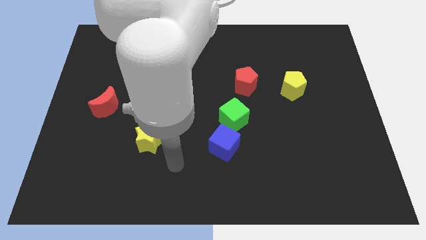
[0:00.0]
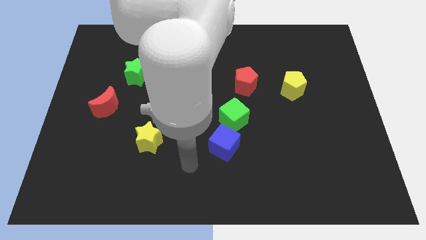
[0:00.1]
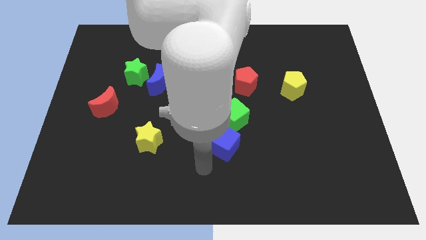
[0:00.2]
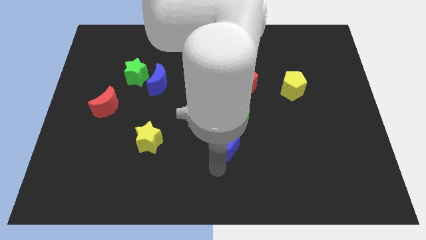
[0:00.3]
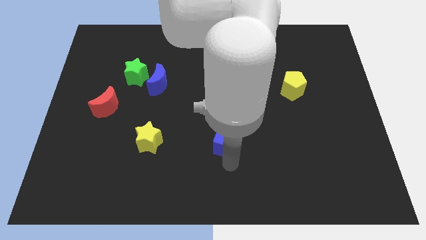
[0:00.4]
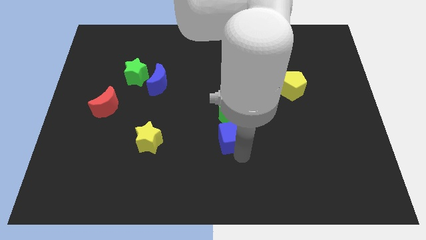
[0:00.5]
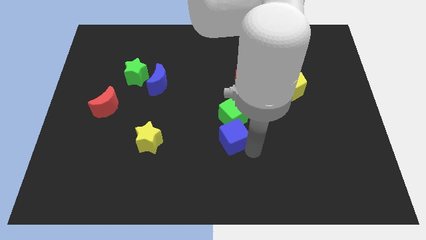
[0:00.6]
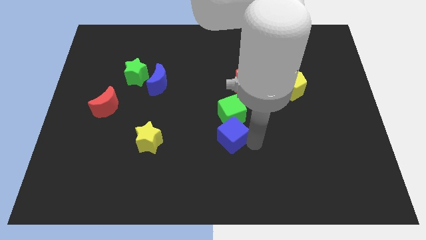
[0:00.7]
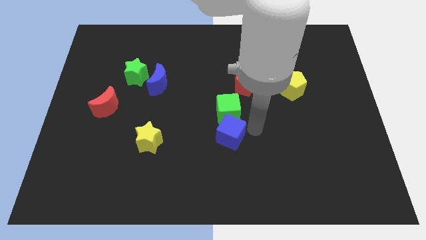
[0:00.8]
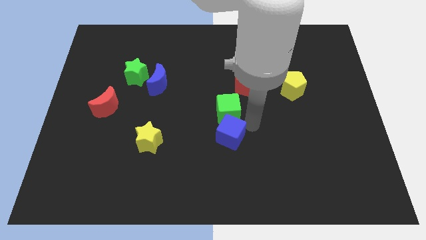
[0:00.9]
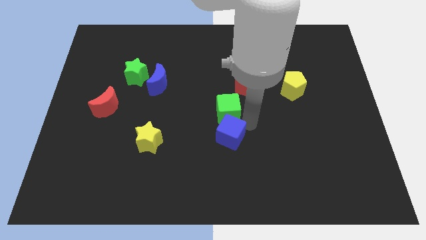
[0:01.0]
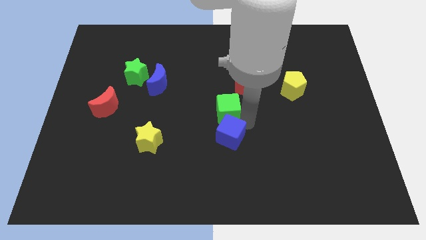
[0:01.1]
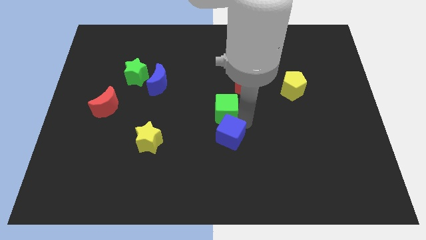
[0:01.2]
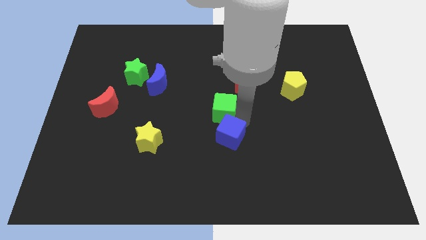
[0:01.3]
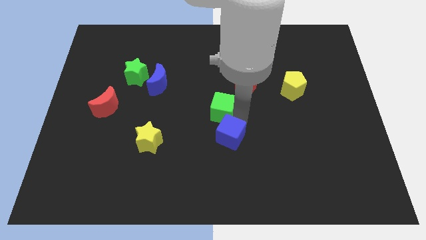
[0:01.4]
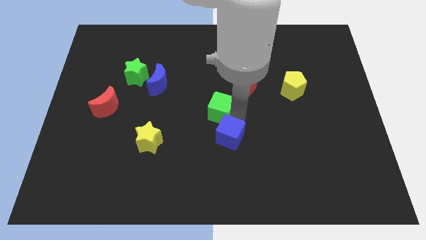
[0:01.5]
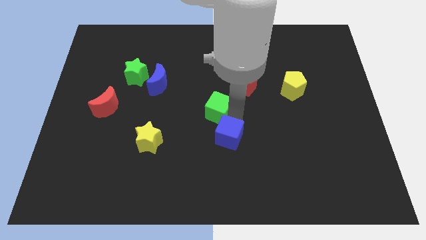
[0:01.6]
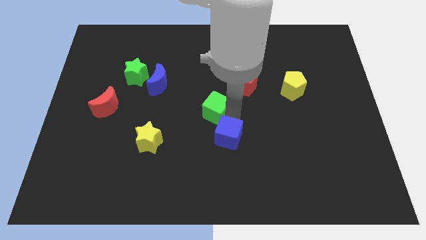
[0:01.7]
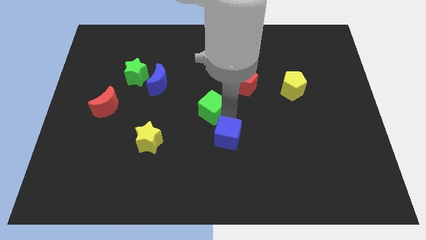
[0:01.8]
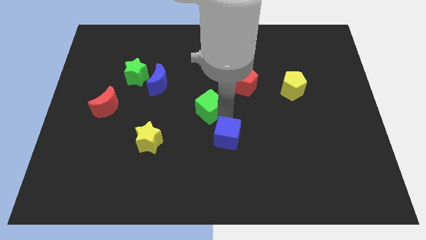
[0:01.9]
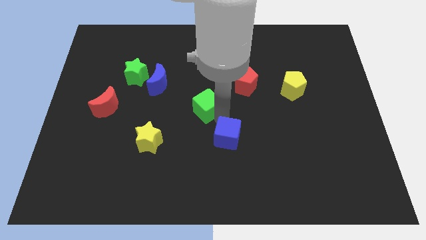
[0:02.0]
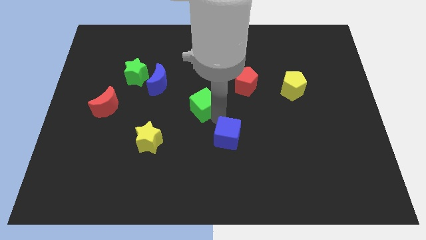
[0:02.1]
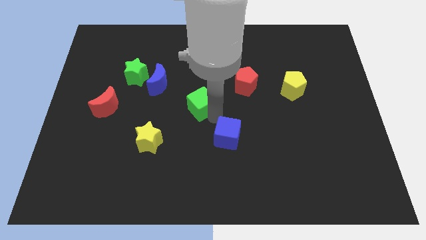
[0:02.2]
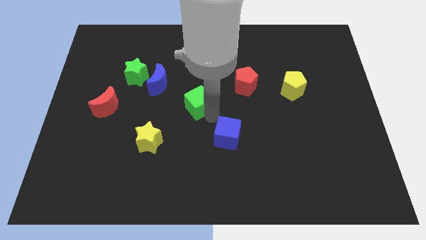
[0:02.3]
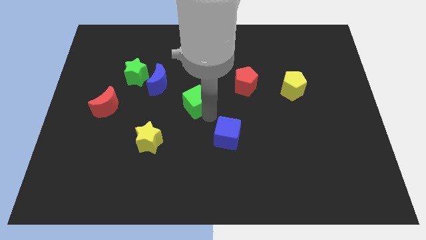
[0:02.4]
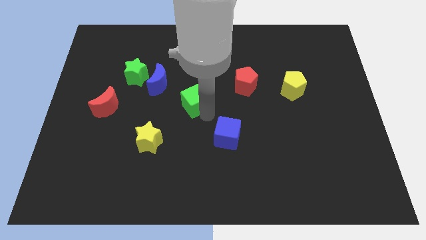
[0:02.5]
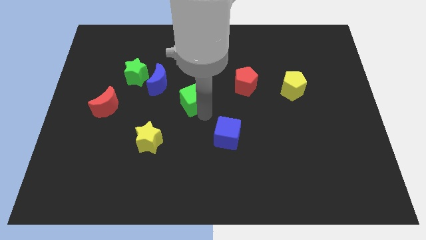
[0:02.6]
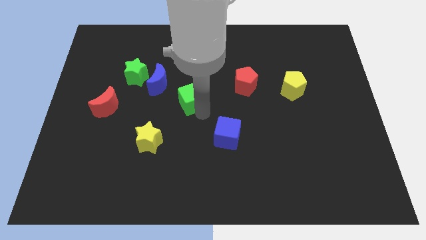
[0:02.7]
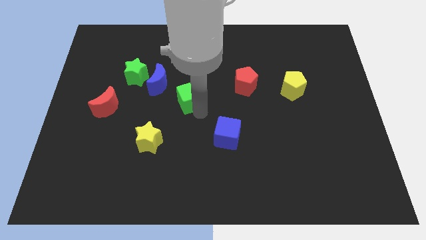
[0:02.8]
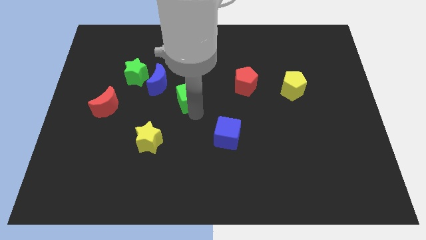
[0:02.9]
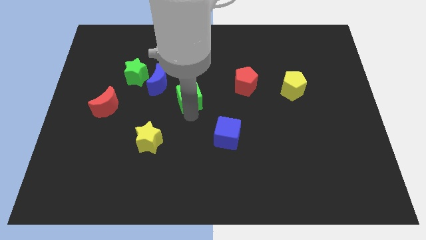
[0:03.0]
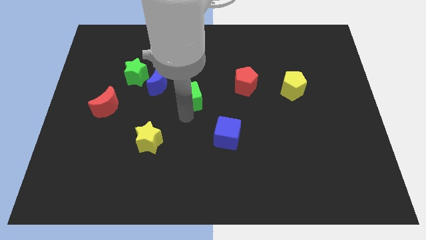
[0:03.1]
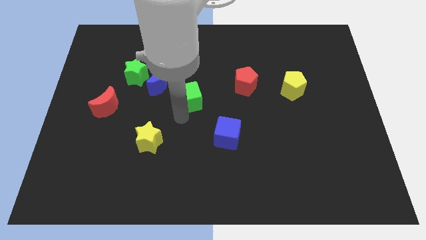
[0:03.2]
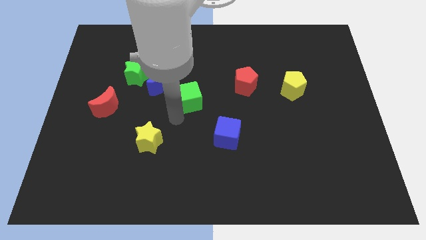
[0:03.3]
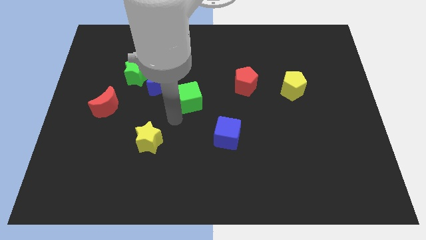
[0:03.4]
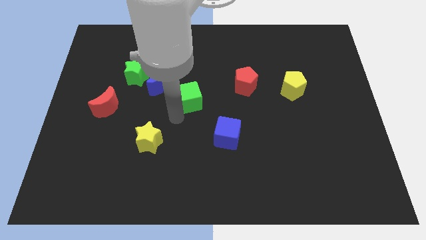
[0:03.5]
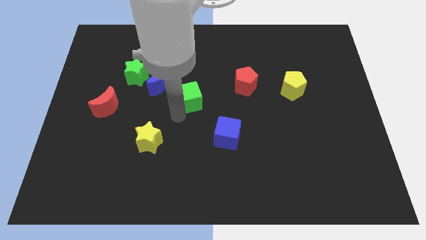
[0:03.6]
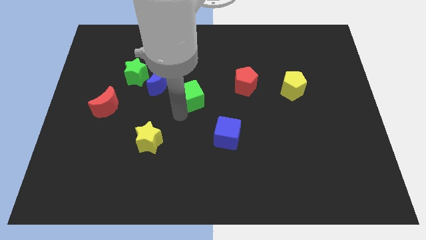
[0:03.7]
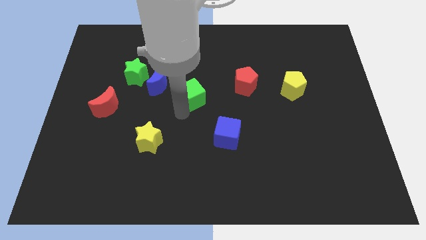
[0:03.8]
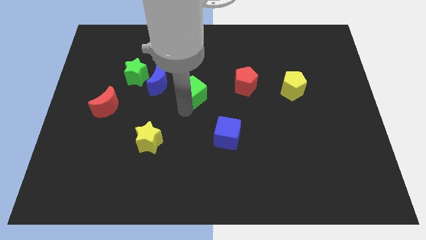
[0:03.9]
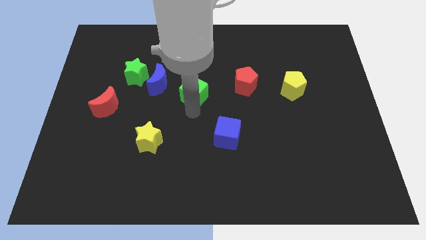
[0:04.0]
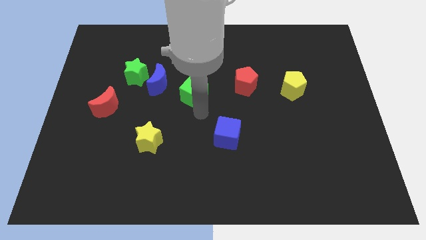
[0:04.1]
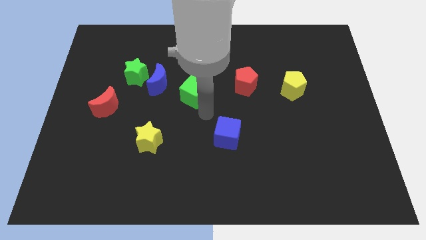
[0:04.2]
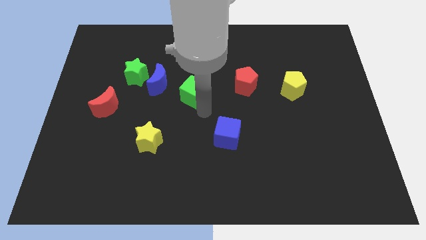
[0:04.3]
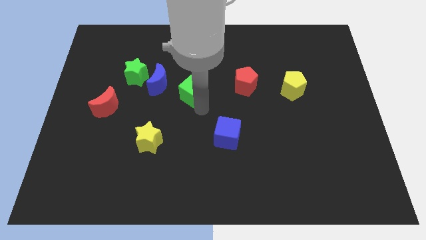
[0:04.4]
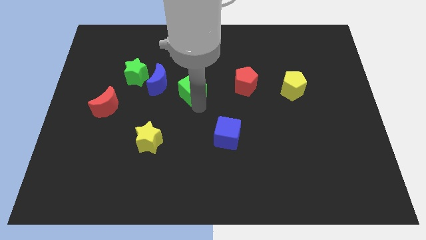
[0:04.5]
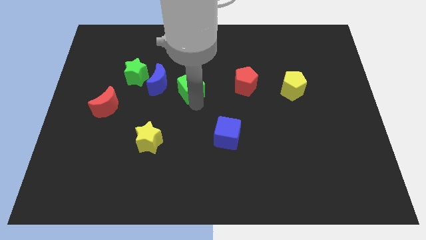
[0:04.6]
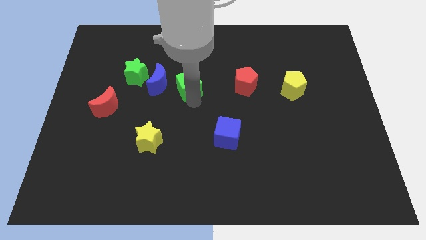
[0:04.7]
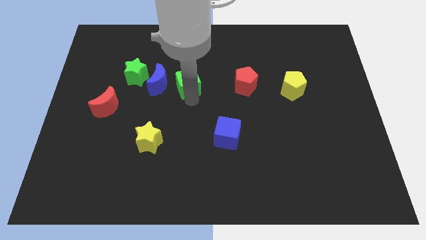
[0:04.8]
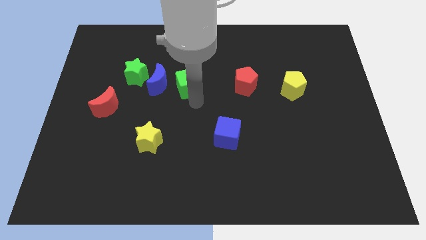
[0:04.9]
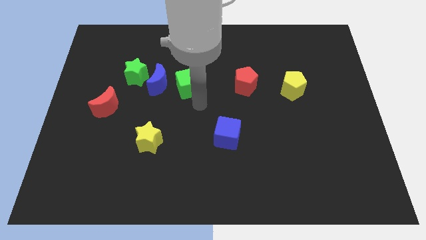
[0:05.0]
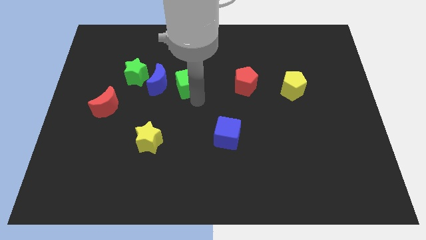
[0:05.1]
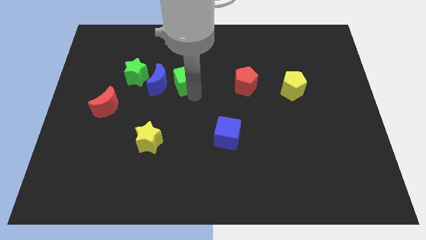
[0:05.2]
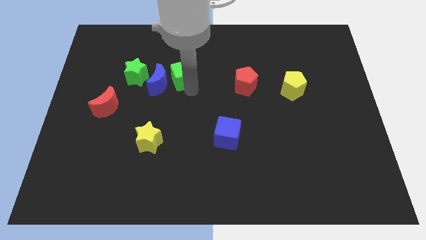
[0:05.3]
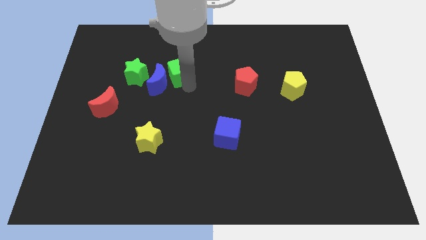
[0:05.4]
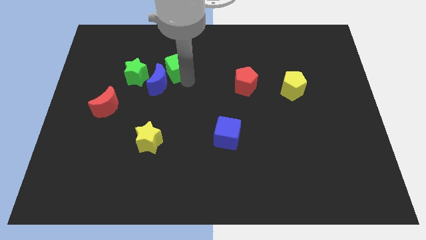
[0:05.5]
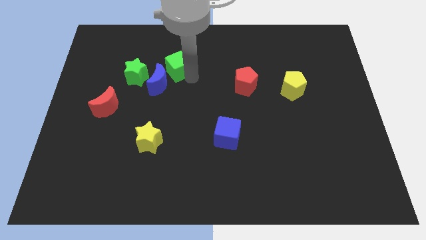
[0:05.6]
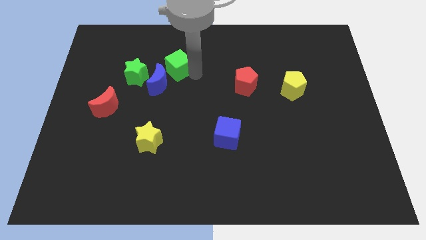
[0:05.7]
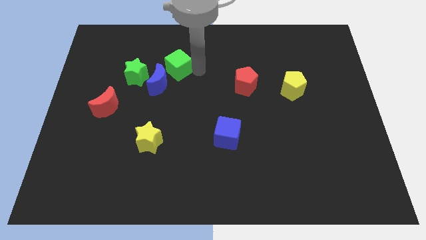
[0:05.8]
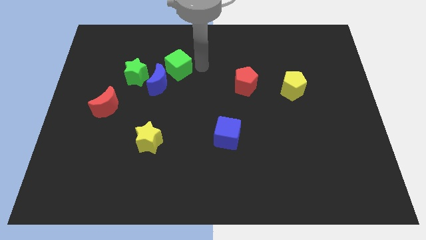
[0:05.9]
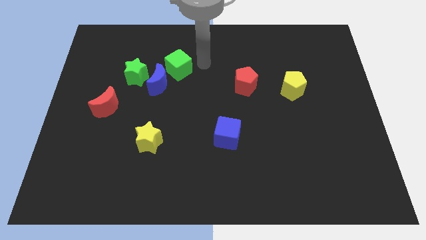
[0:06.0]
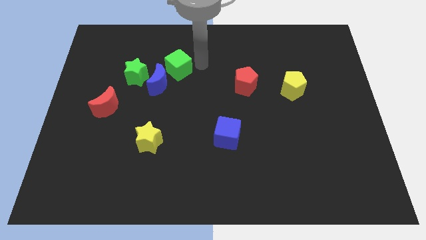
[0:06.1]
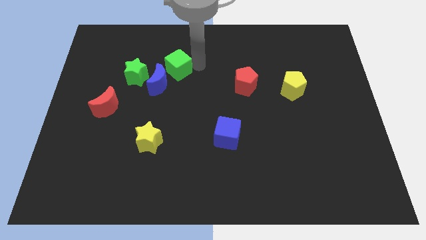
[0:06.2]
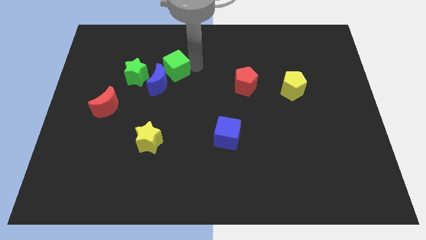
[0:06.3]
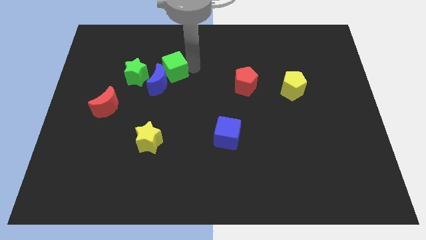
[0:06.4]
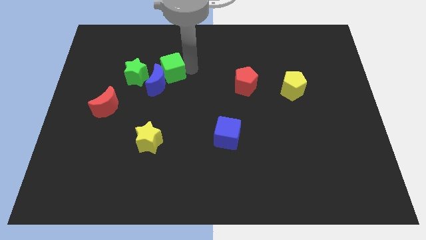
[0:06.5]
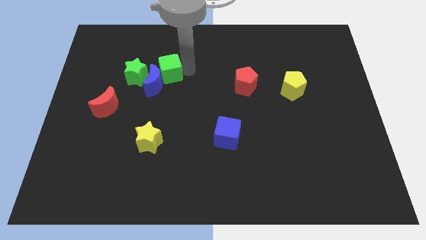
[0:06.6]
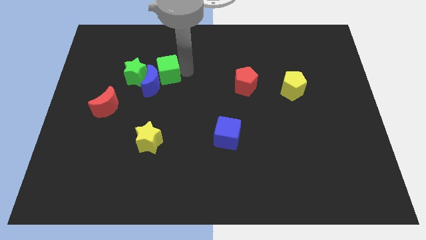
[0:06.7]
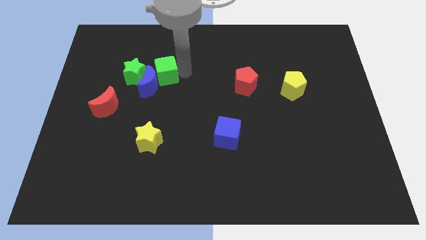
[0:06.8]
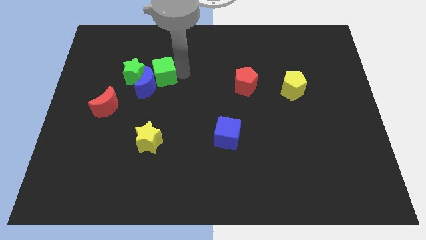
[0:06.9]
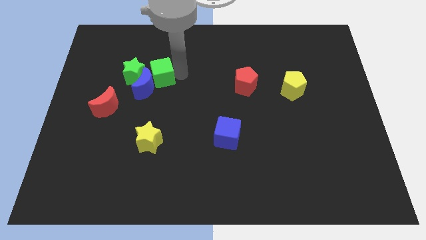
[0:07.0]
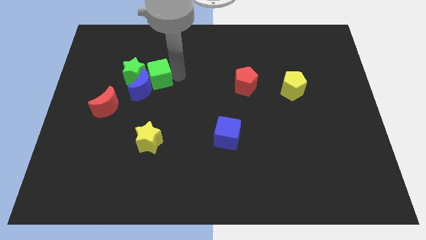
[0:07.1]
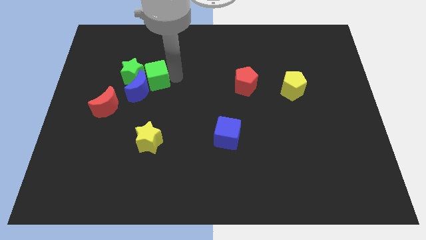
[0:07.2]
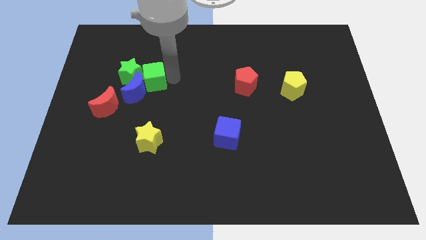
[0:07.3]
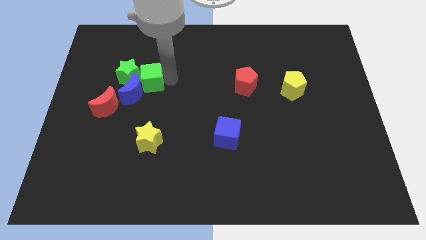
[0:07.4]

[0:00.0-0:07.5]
put the green cube towards the green star
